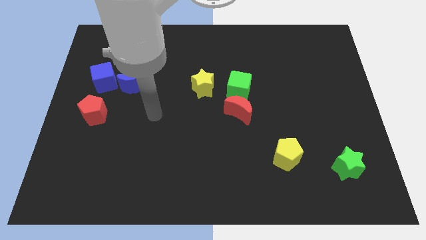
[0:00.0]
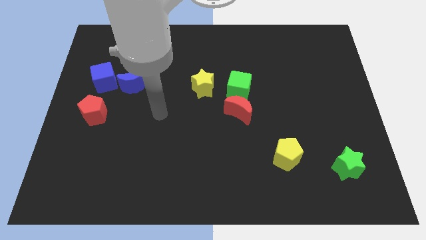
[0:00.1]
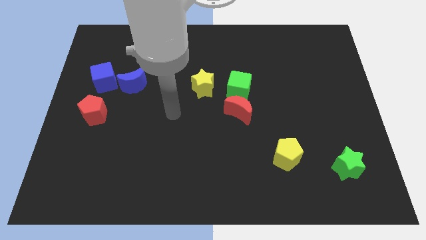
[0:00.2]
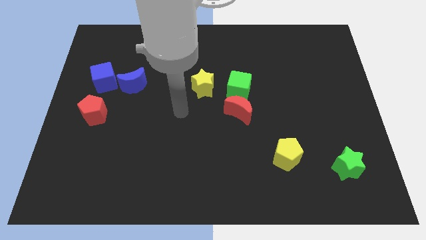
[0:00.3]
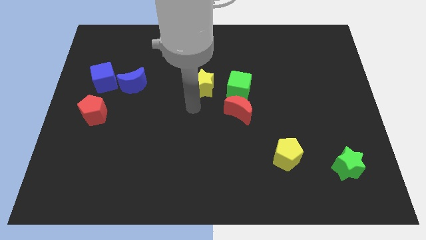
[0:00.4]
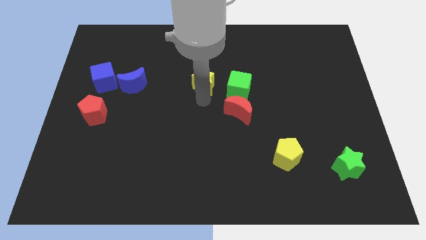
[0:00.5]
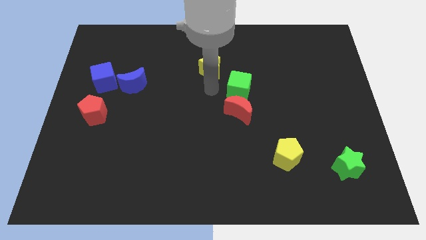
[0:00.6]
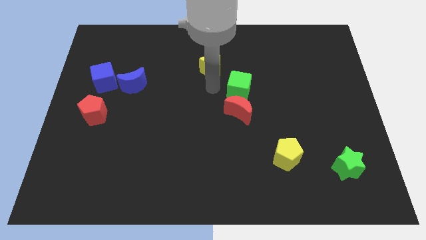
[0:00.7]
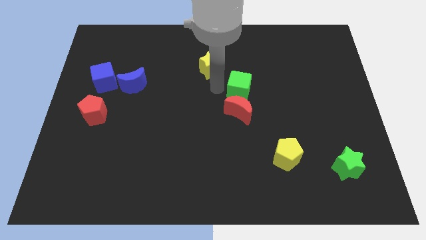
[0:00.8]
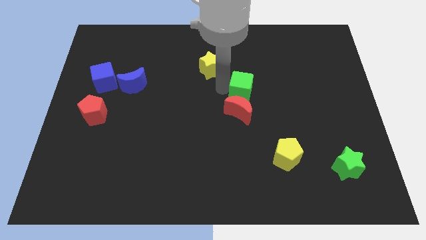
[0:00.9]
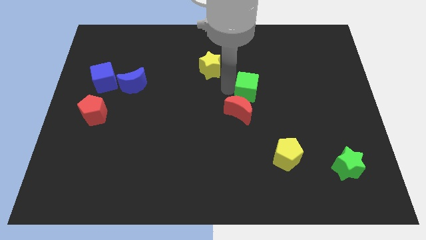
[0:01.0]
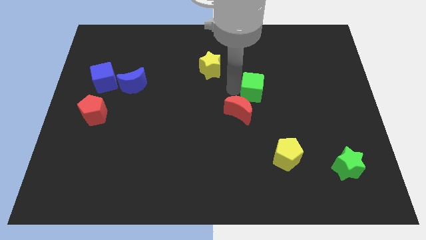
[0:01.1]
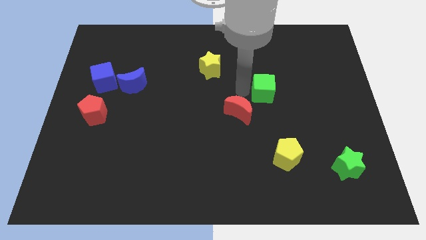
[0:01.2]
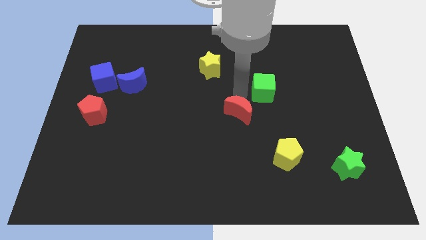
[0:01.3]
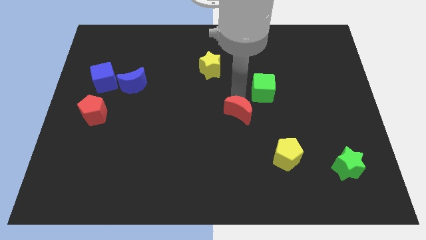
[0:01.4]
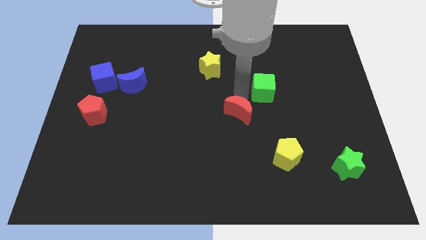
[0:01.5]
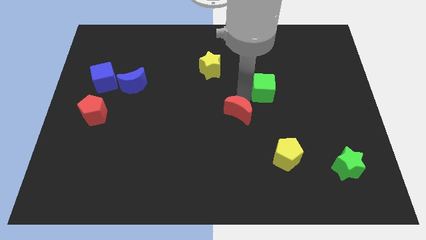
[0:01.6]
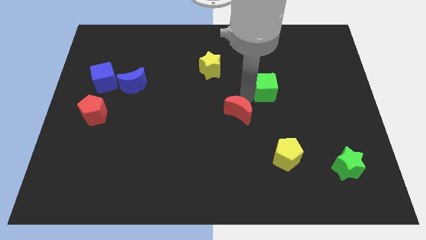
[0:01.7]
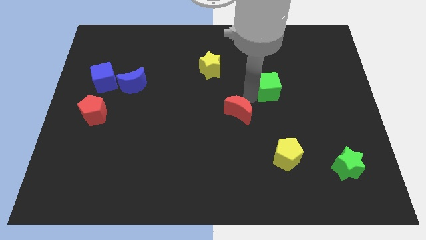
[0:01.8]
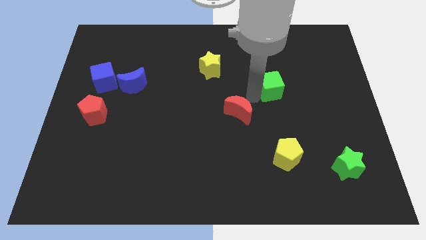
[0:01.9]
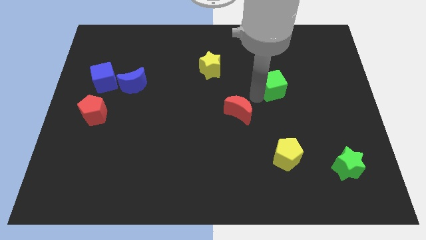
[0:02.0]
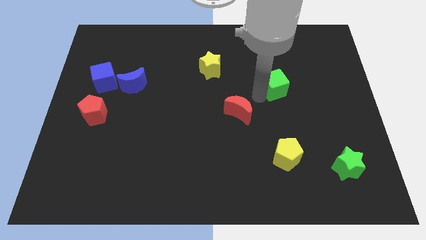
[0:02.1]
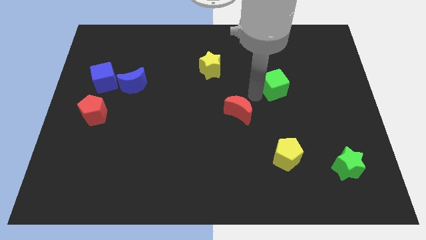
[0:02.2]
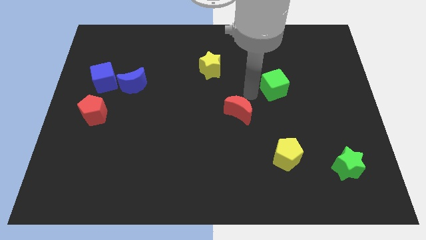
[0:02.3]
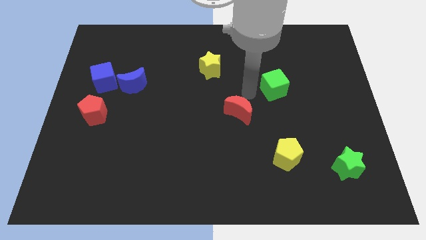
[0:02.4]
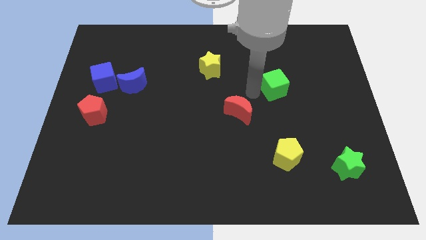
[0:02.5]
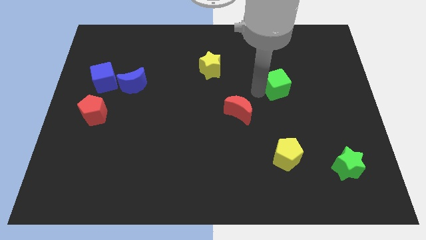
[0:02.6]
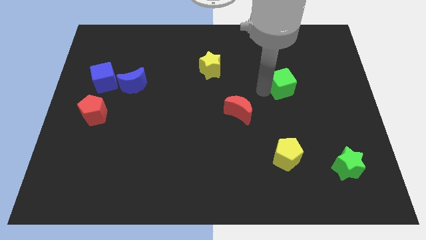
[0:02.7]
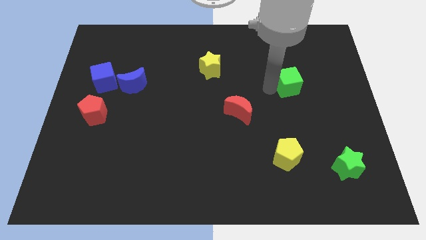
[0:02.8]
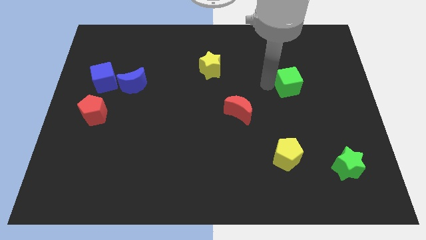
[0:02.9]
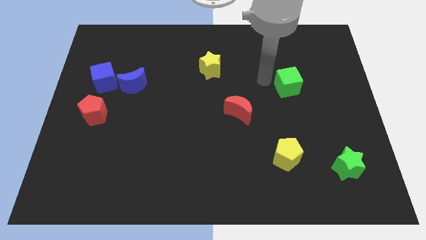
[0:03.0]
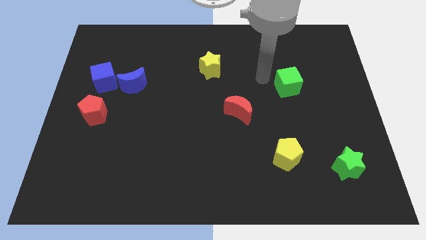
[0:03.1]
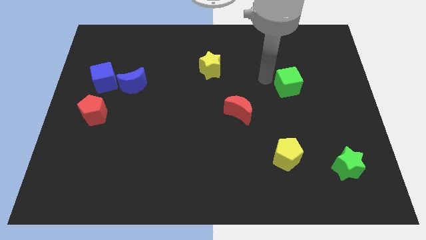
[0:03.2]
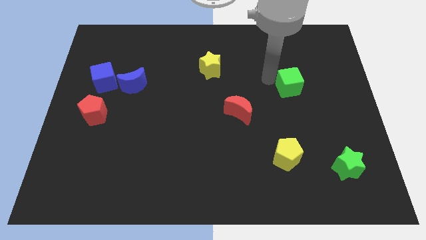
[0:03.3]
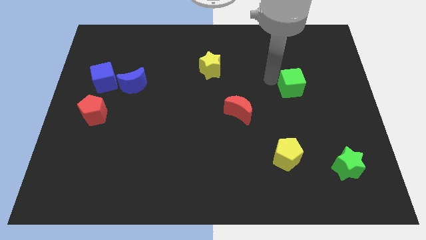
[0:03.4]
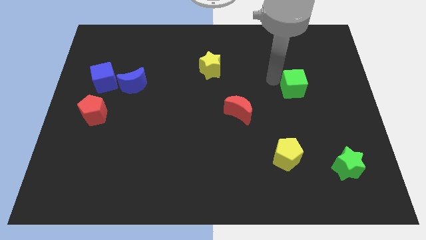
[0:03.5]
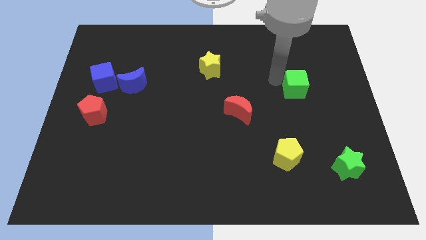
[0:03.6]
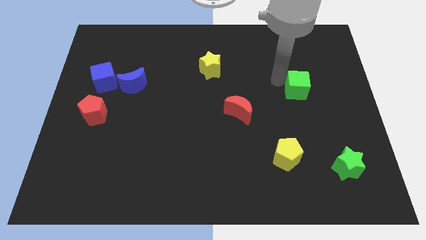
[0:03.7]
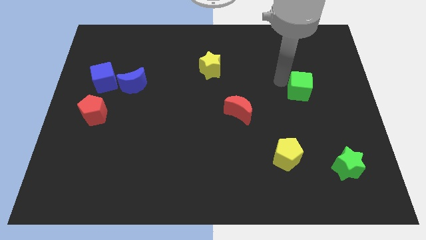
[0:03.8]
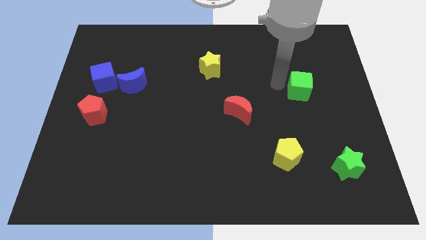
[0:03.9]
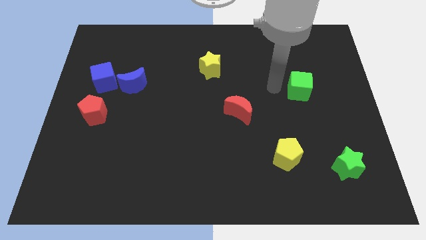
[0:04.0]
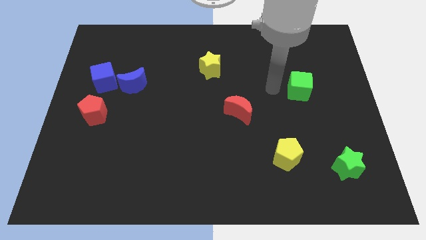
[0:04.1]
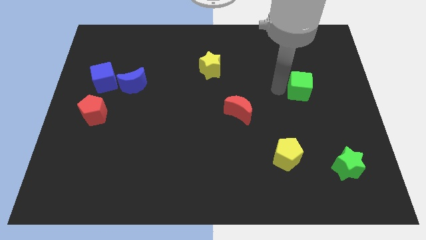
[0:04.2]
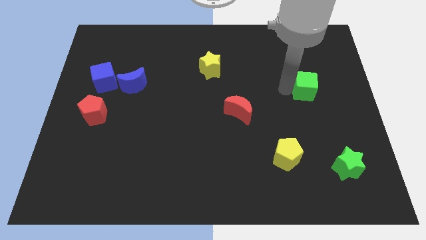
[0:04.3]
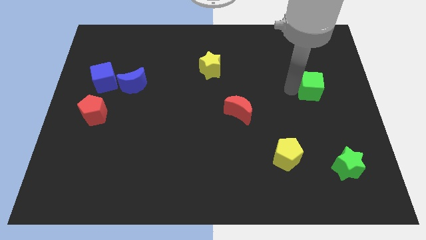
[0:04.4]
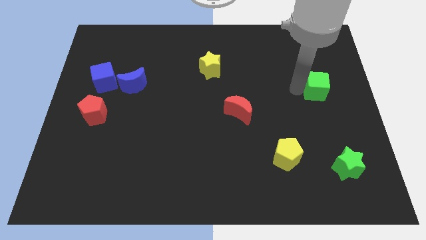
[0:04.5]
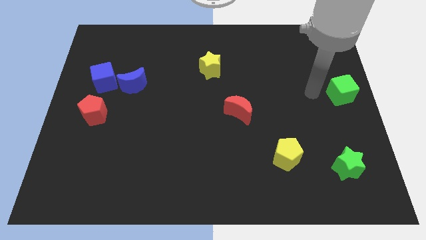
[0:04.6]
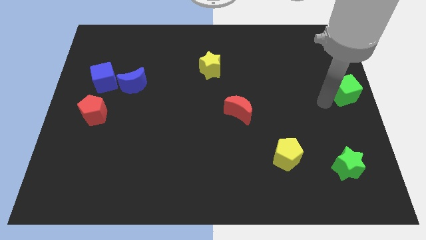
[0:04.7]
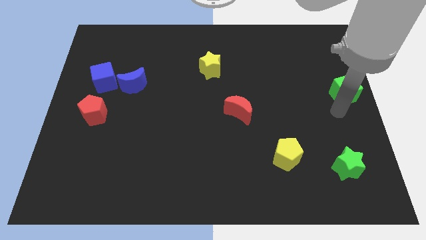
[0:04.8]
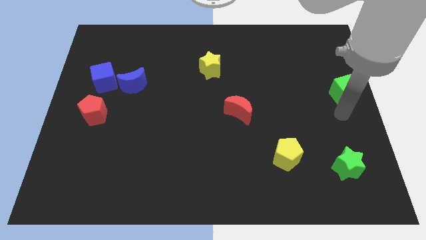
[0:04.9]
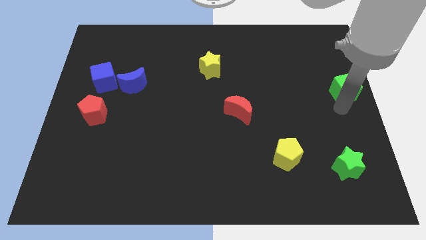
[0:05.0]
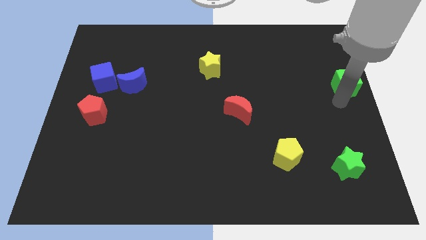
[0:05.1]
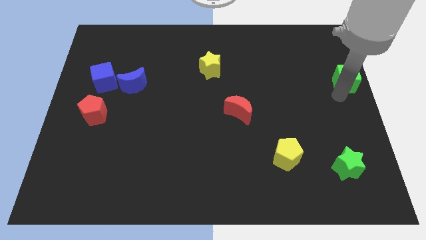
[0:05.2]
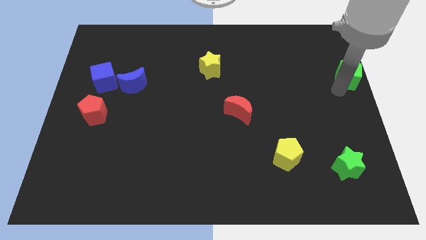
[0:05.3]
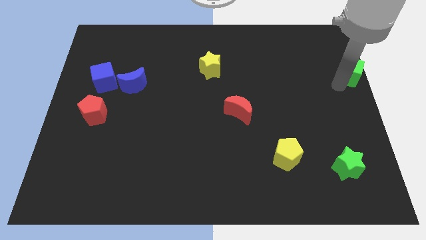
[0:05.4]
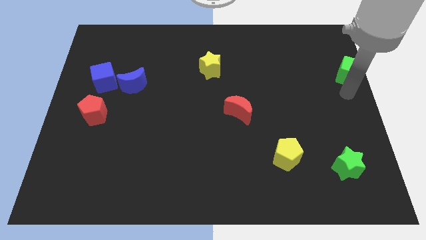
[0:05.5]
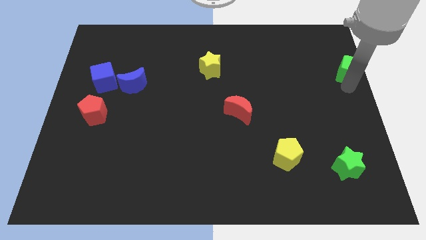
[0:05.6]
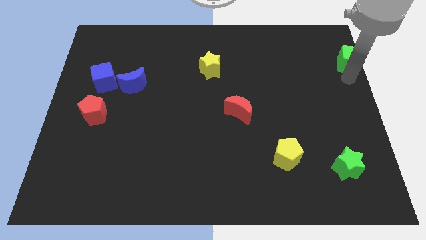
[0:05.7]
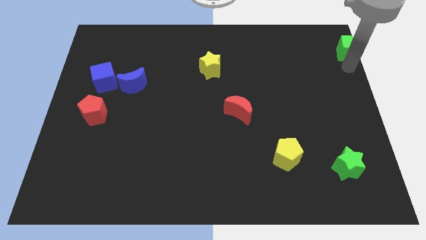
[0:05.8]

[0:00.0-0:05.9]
move the green cube to the top right of the board

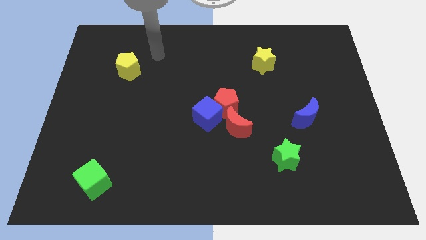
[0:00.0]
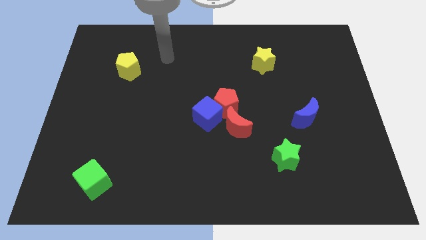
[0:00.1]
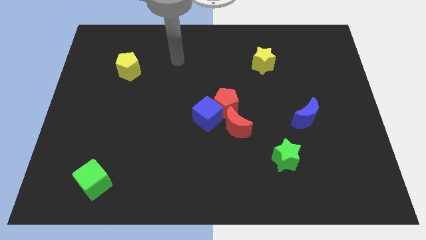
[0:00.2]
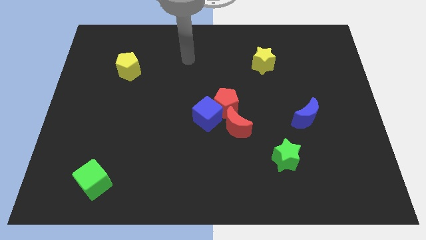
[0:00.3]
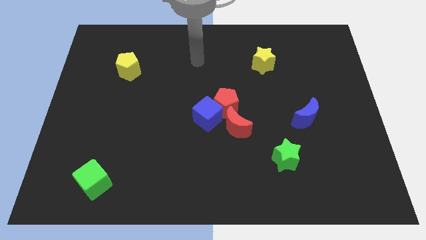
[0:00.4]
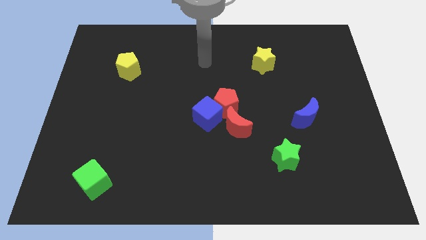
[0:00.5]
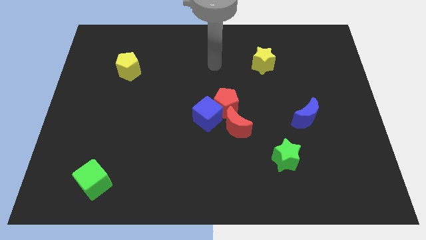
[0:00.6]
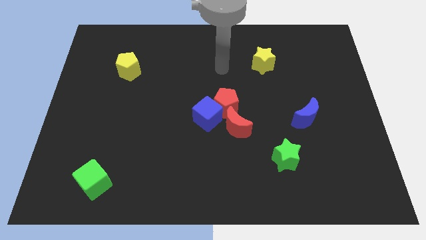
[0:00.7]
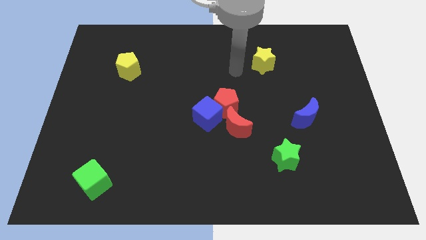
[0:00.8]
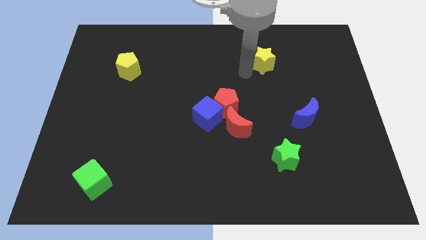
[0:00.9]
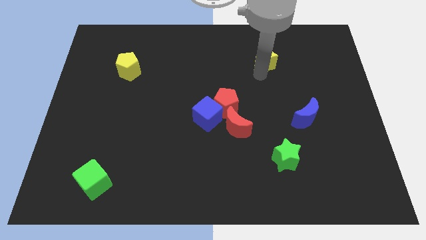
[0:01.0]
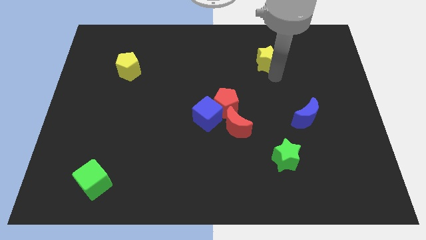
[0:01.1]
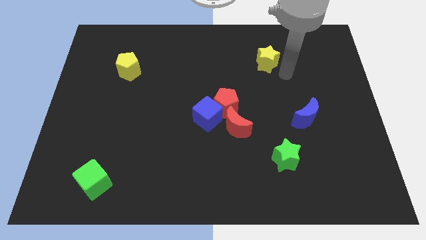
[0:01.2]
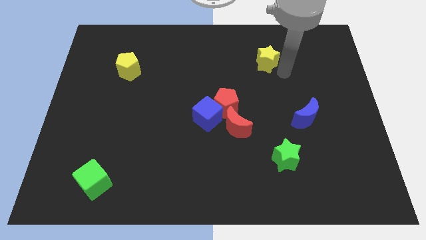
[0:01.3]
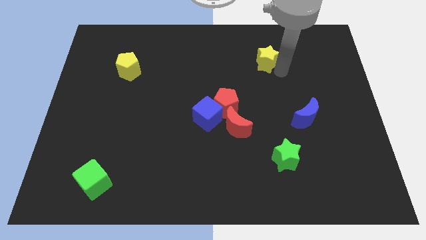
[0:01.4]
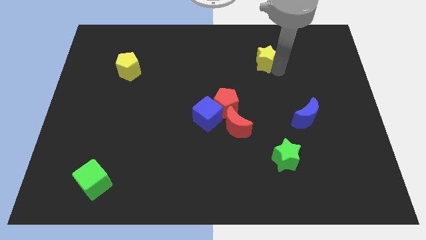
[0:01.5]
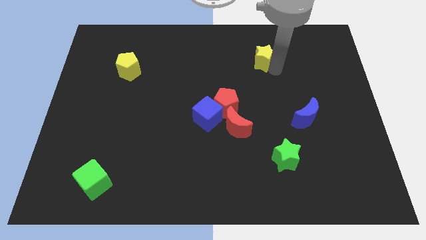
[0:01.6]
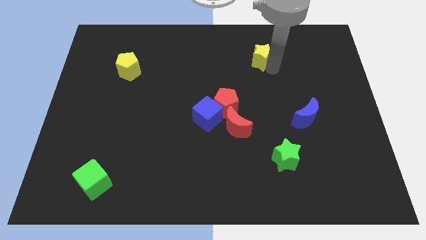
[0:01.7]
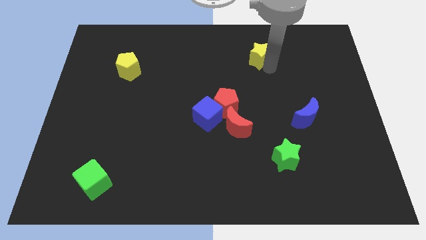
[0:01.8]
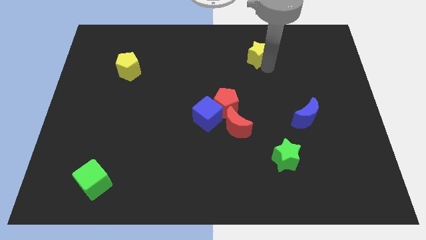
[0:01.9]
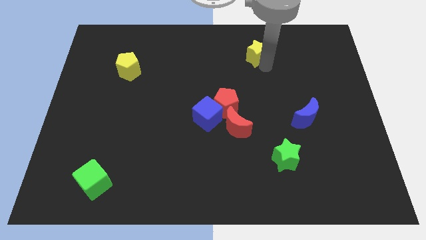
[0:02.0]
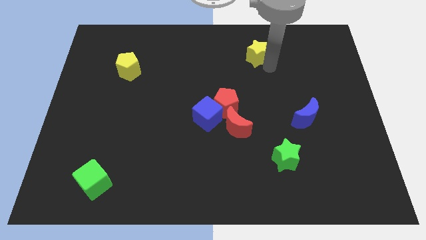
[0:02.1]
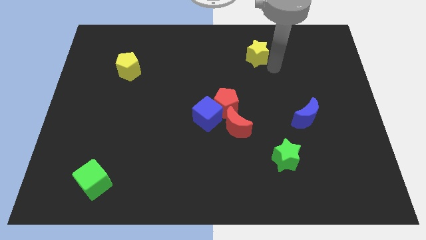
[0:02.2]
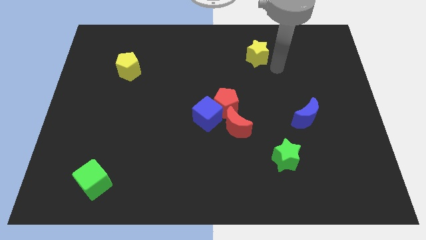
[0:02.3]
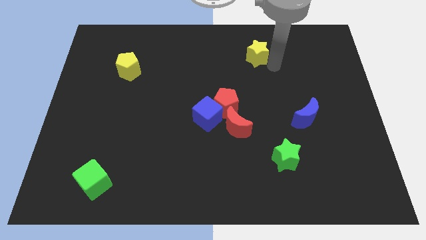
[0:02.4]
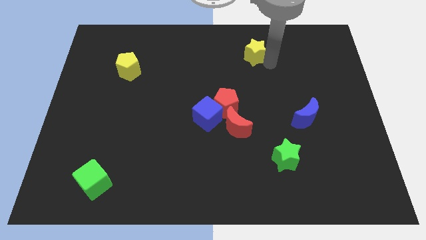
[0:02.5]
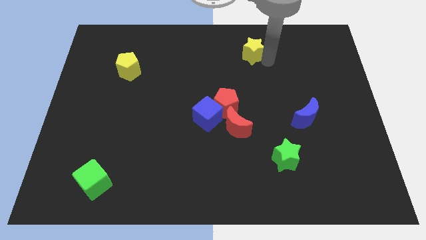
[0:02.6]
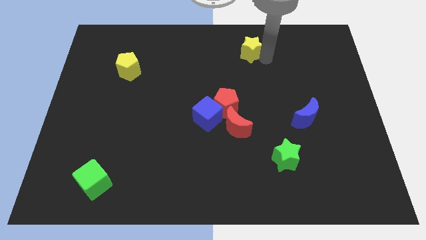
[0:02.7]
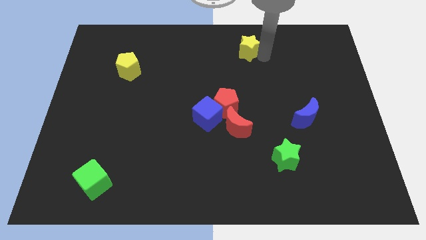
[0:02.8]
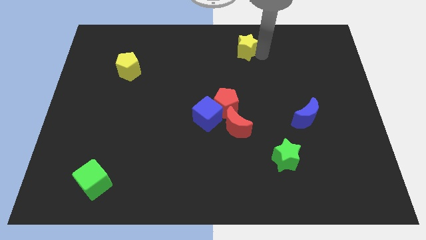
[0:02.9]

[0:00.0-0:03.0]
put the yellow star to the top side
